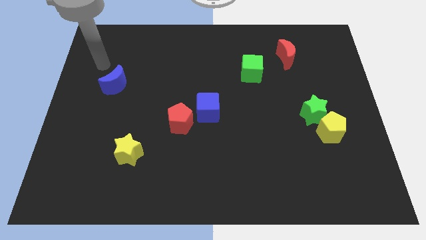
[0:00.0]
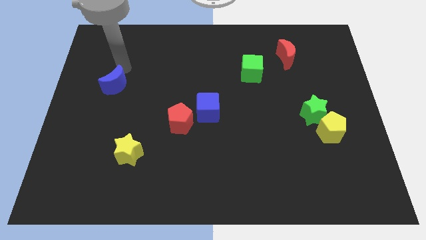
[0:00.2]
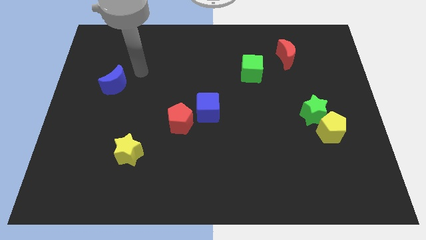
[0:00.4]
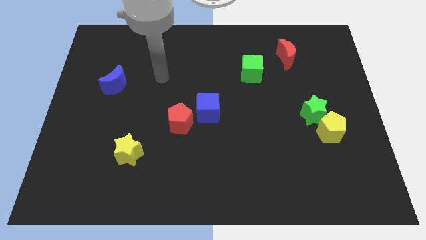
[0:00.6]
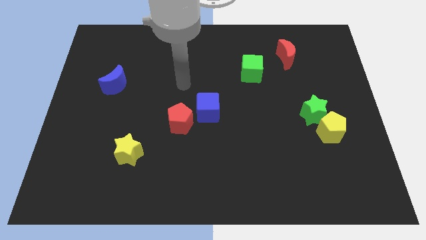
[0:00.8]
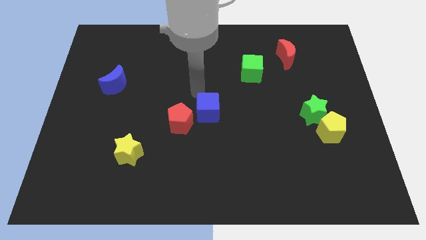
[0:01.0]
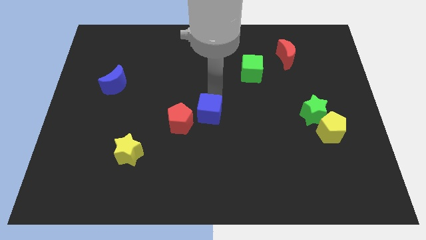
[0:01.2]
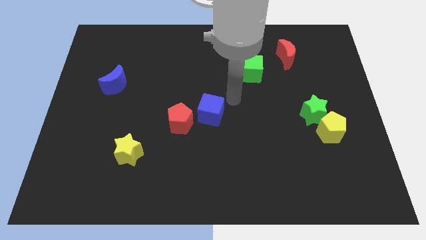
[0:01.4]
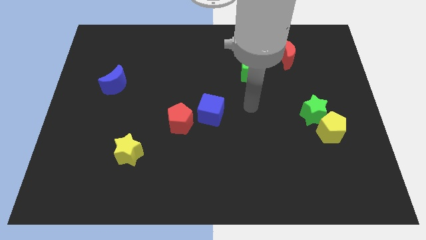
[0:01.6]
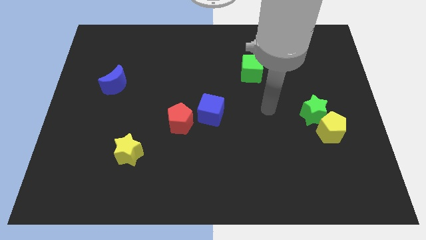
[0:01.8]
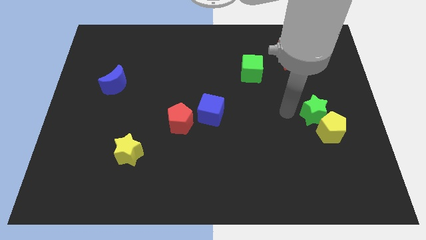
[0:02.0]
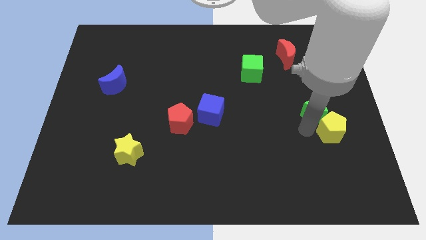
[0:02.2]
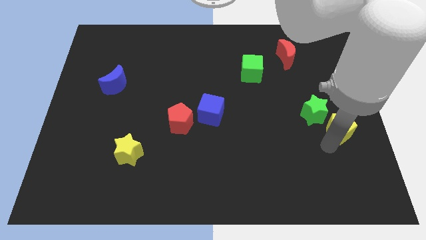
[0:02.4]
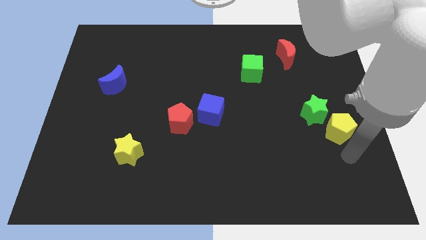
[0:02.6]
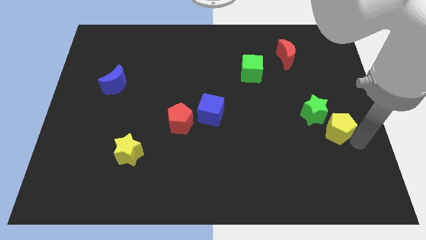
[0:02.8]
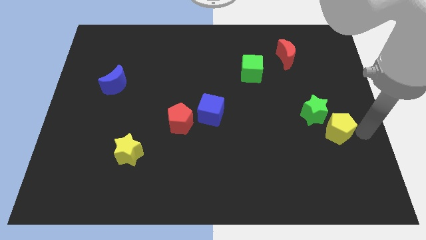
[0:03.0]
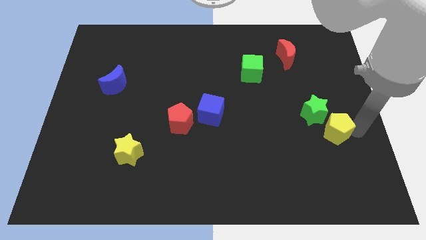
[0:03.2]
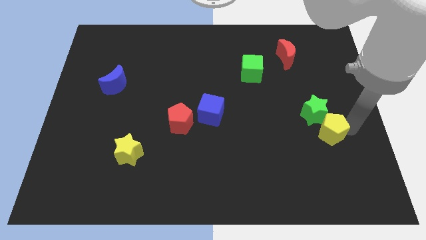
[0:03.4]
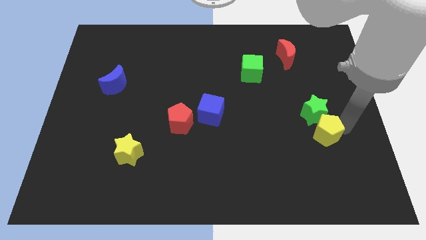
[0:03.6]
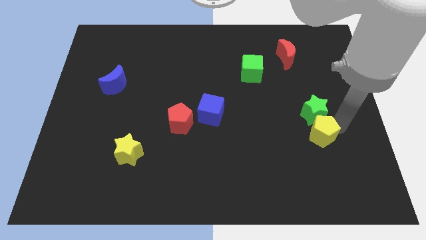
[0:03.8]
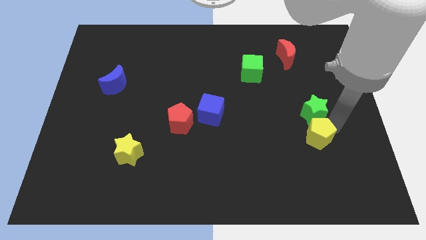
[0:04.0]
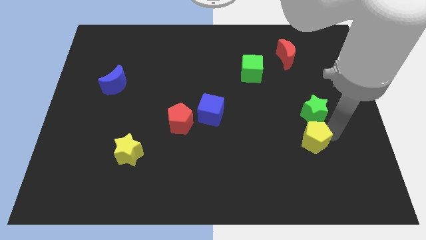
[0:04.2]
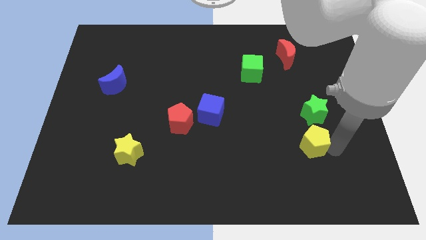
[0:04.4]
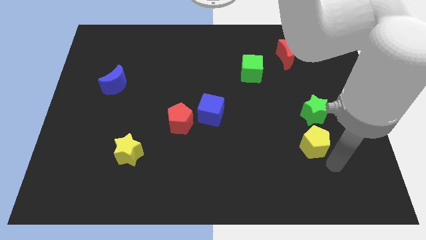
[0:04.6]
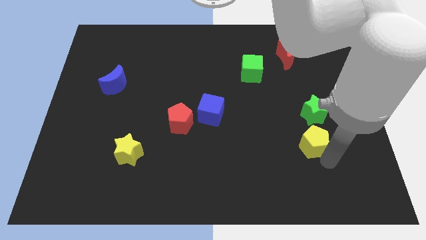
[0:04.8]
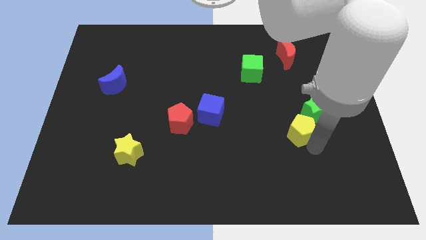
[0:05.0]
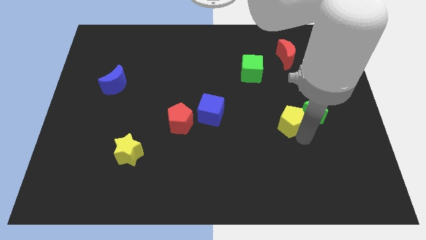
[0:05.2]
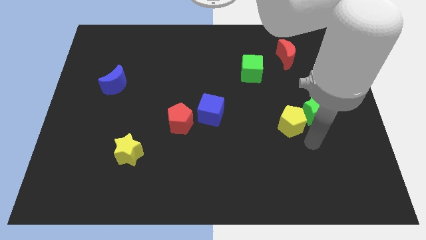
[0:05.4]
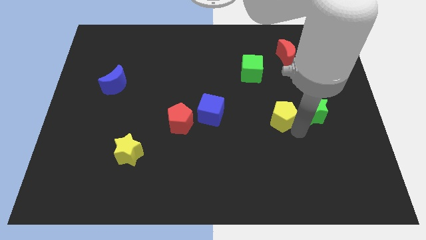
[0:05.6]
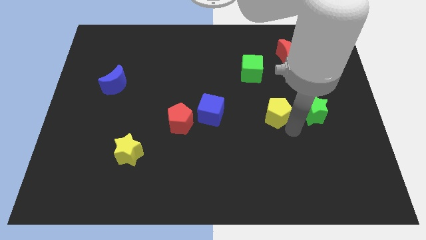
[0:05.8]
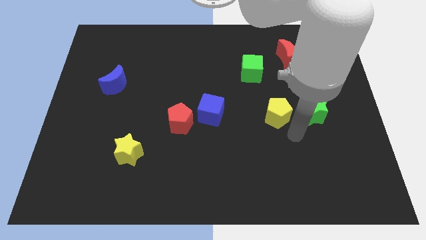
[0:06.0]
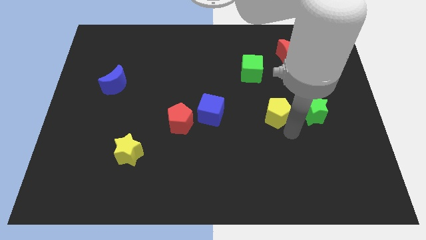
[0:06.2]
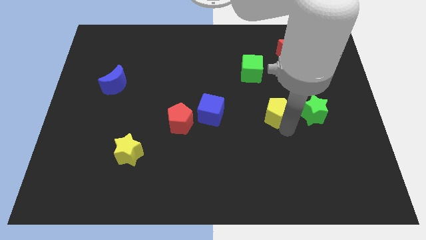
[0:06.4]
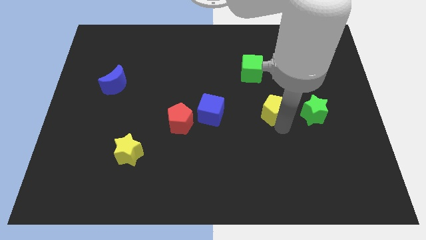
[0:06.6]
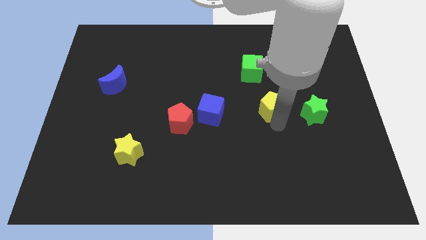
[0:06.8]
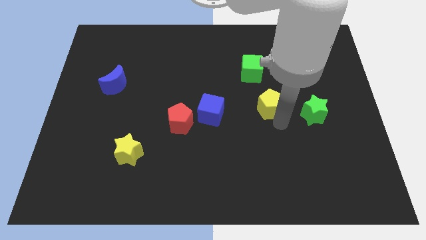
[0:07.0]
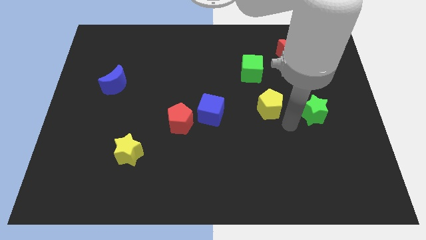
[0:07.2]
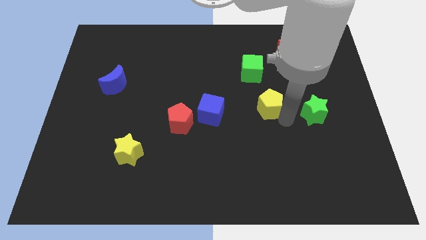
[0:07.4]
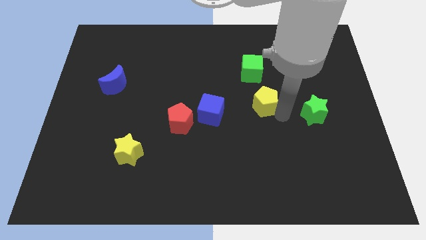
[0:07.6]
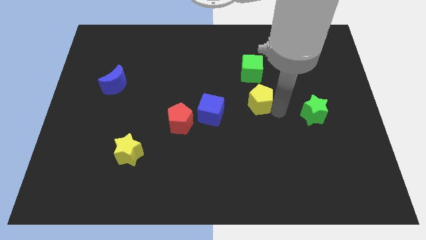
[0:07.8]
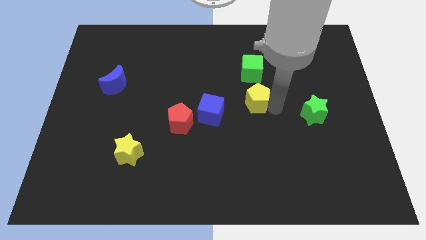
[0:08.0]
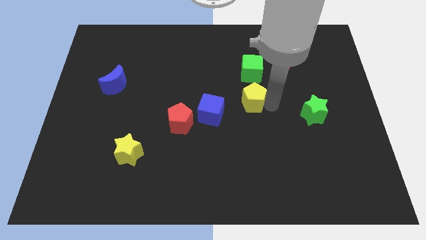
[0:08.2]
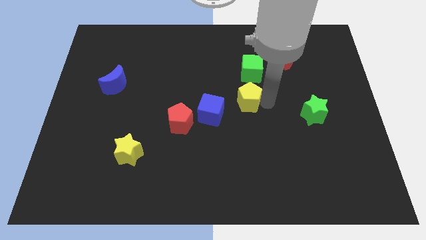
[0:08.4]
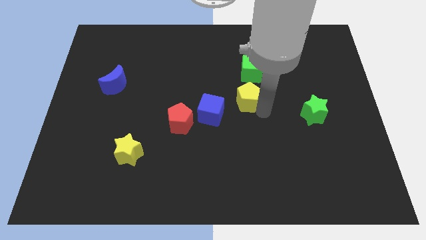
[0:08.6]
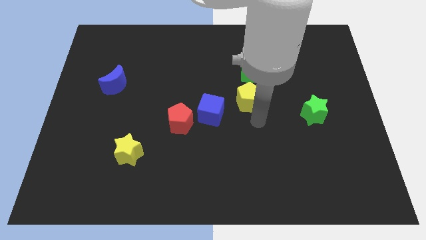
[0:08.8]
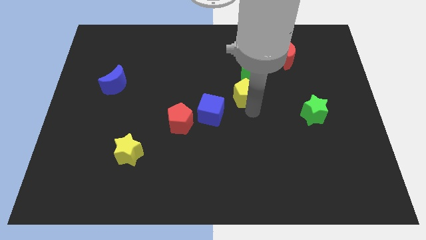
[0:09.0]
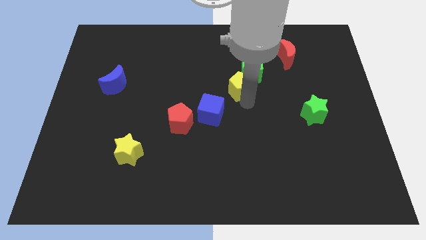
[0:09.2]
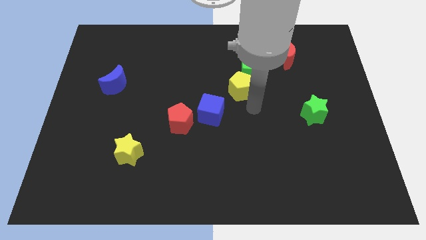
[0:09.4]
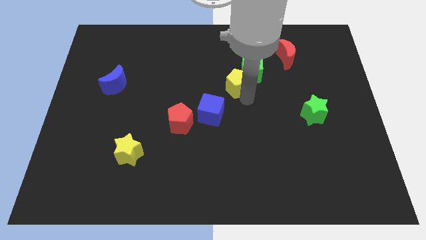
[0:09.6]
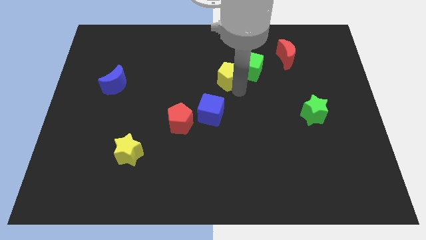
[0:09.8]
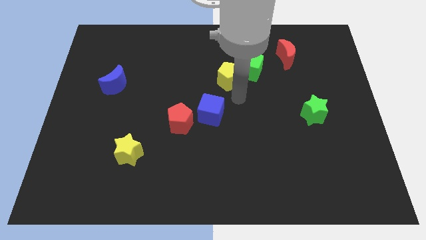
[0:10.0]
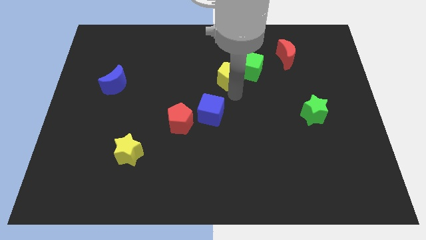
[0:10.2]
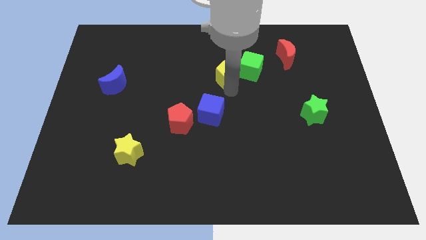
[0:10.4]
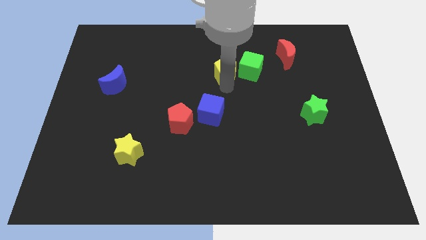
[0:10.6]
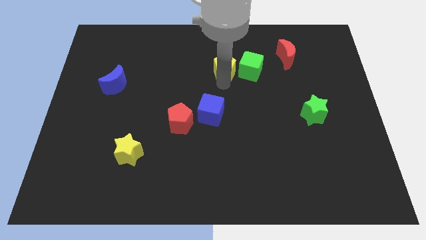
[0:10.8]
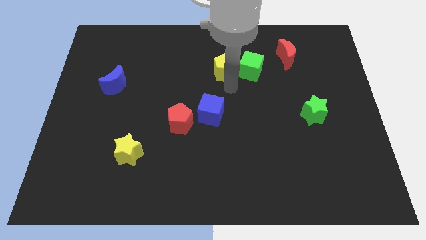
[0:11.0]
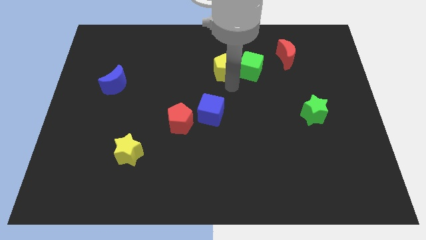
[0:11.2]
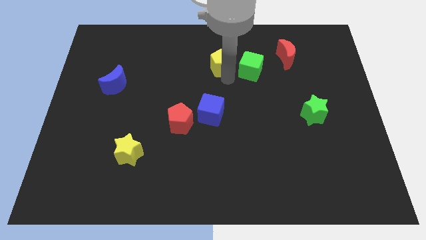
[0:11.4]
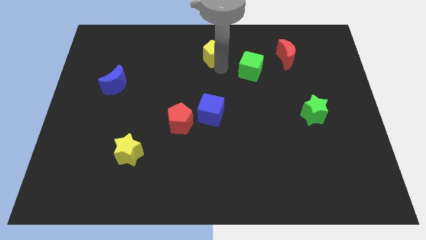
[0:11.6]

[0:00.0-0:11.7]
move the yellow pentagon to the towards your base

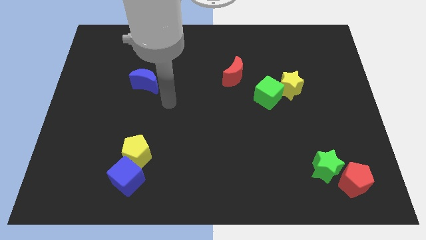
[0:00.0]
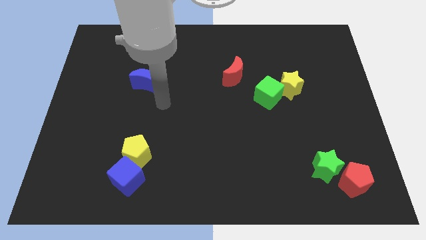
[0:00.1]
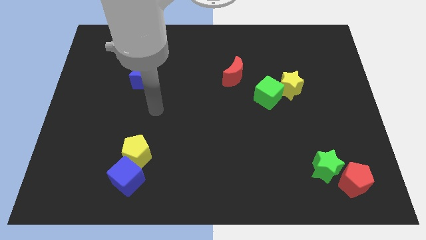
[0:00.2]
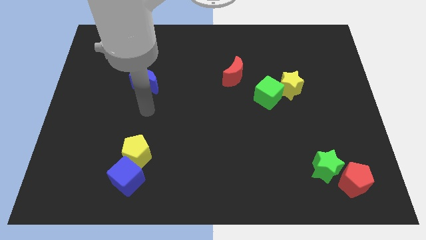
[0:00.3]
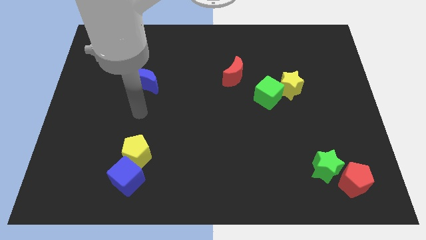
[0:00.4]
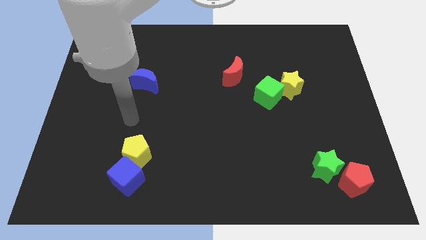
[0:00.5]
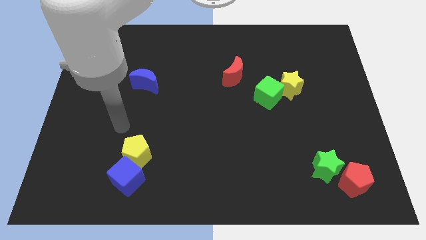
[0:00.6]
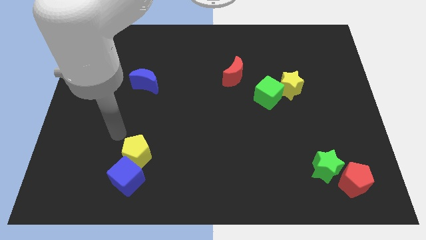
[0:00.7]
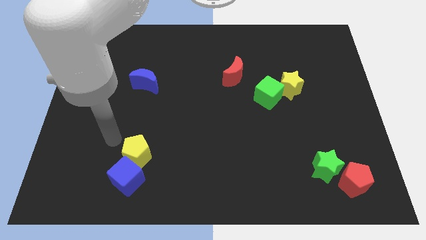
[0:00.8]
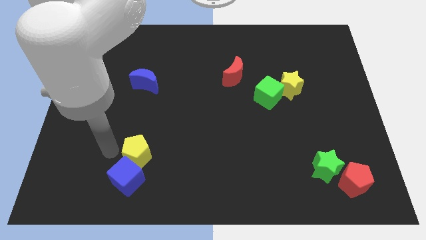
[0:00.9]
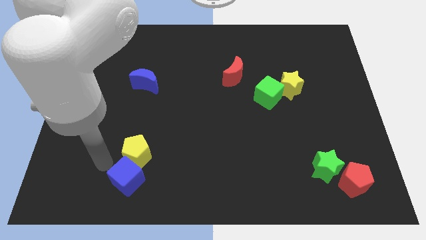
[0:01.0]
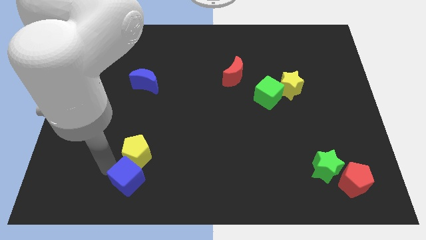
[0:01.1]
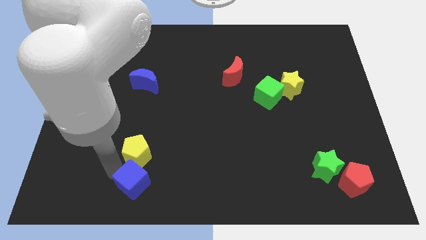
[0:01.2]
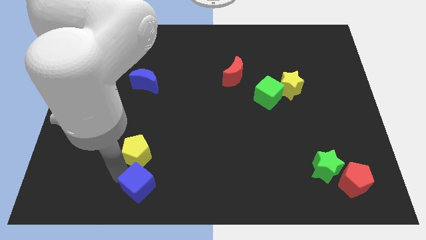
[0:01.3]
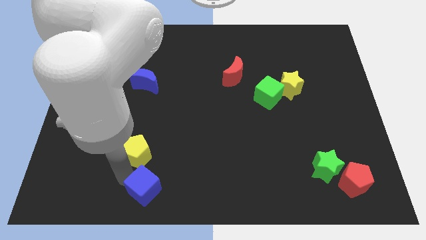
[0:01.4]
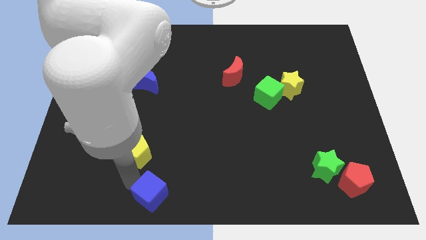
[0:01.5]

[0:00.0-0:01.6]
move the blue cube to the bottom
